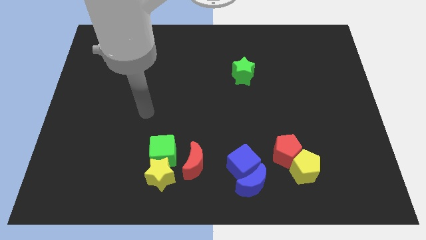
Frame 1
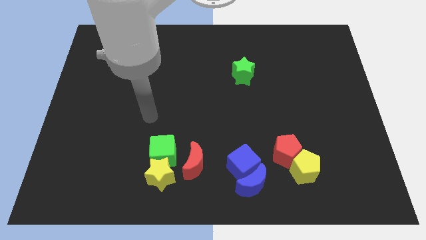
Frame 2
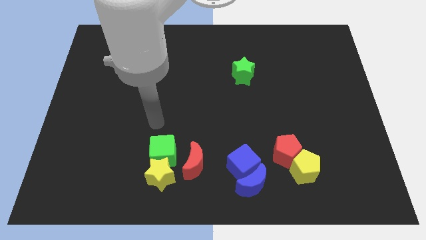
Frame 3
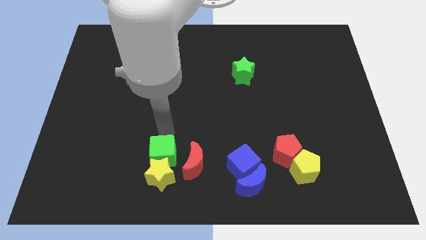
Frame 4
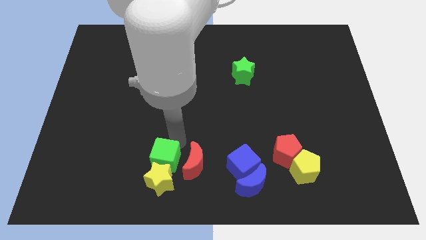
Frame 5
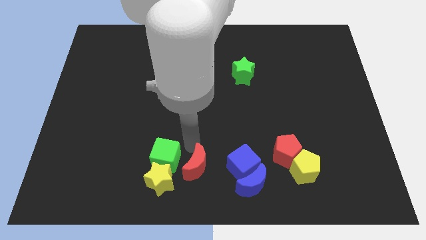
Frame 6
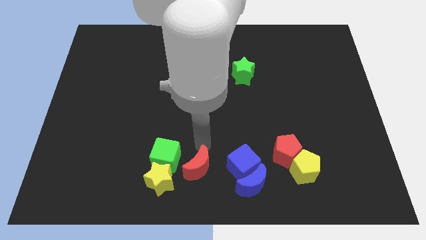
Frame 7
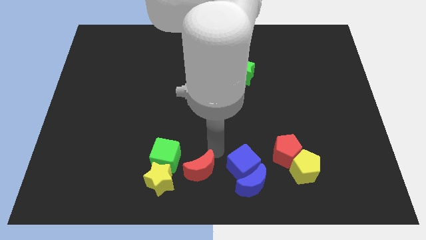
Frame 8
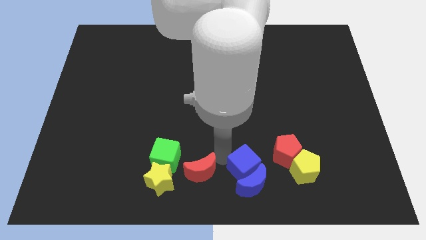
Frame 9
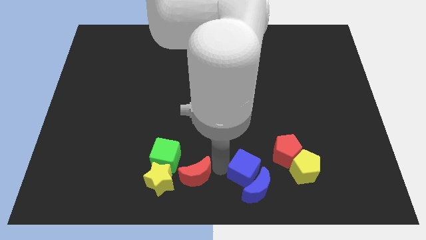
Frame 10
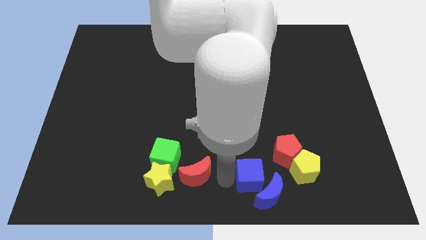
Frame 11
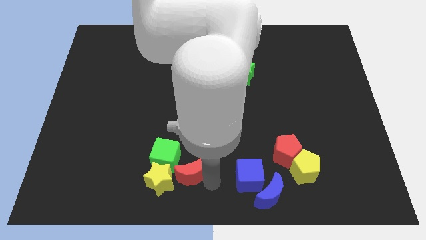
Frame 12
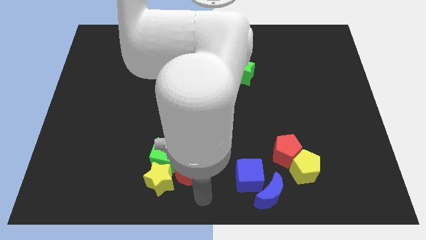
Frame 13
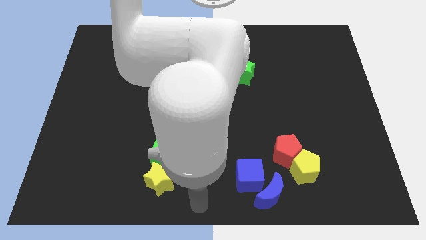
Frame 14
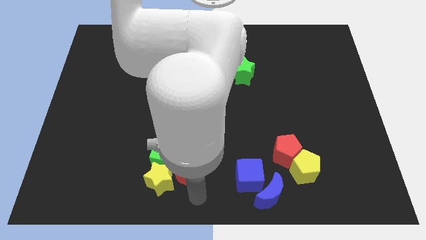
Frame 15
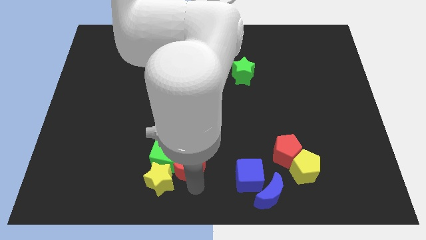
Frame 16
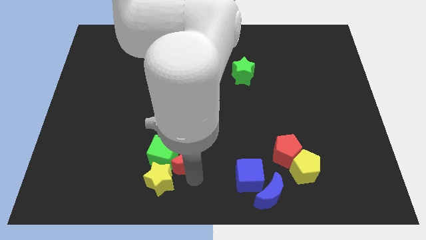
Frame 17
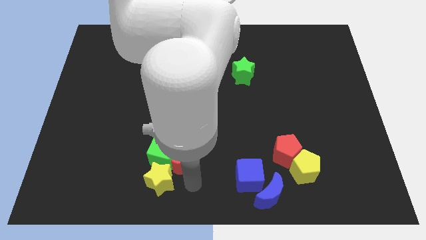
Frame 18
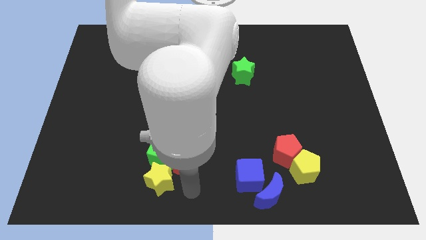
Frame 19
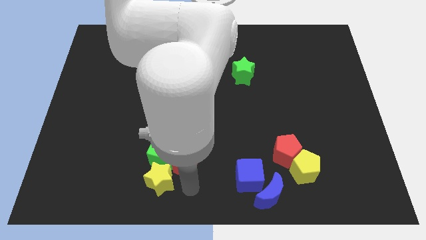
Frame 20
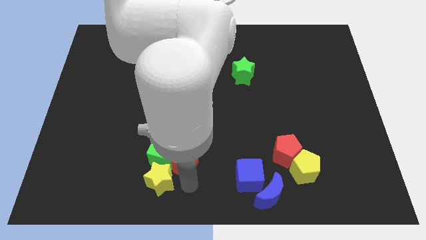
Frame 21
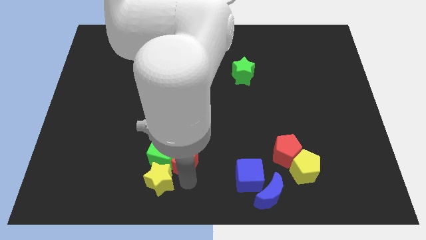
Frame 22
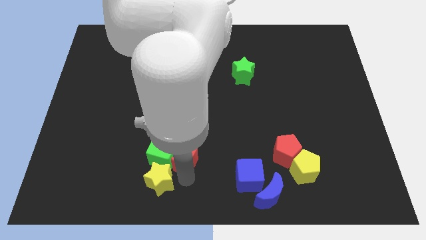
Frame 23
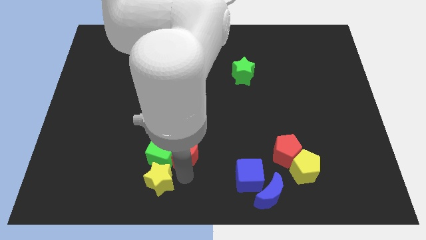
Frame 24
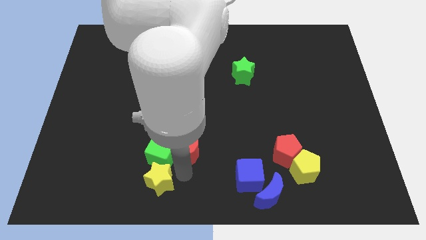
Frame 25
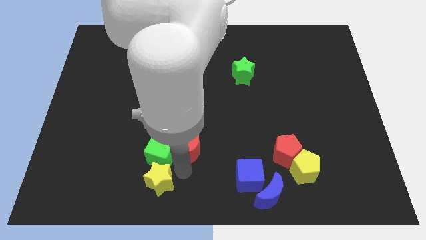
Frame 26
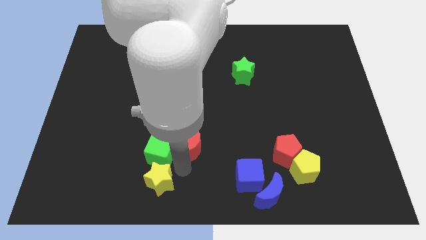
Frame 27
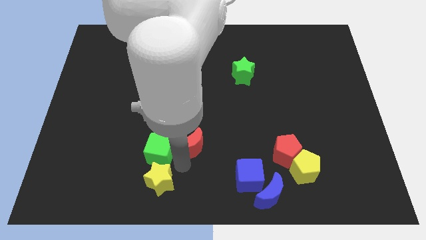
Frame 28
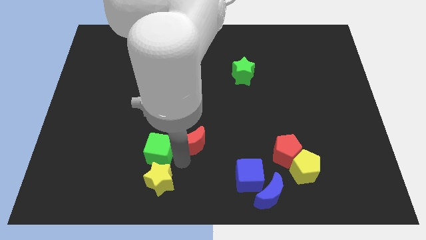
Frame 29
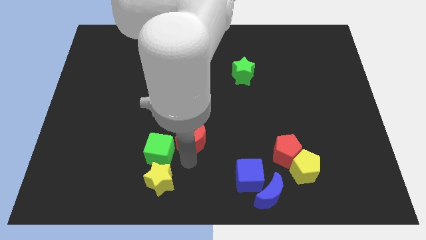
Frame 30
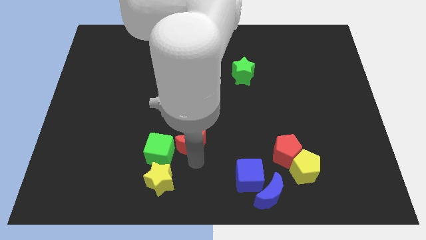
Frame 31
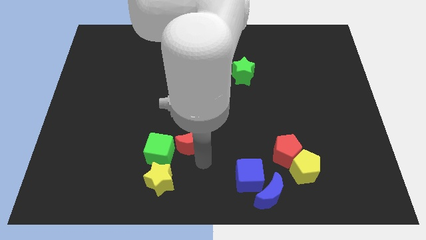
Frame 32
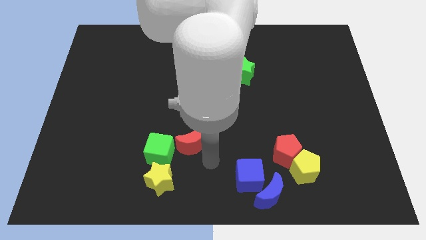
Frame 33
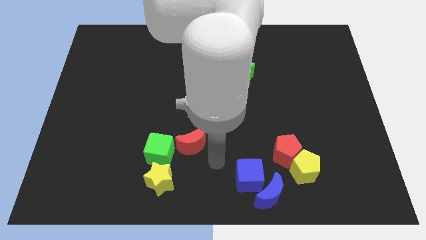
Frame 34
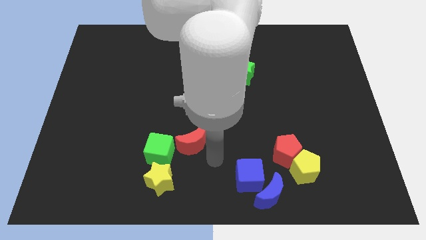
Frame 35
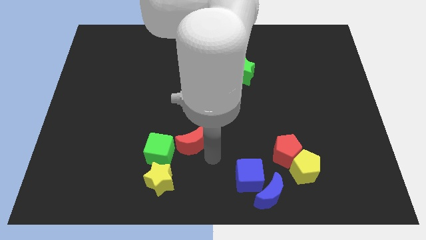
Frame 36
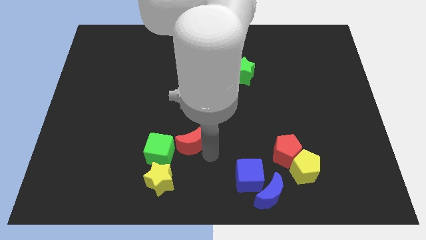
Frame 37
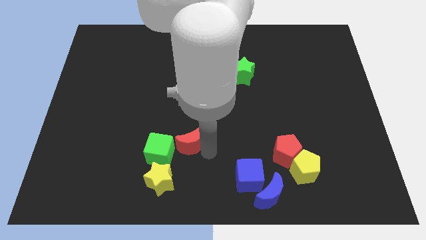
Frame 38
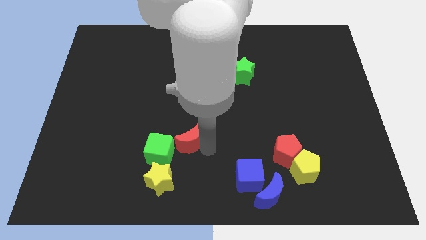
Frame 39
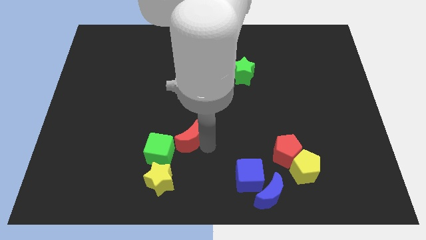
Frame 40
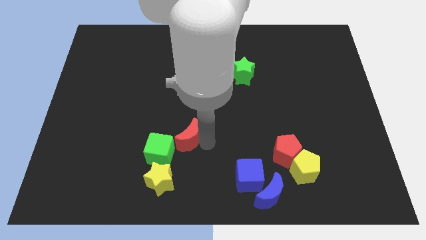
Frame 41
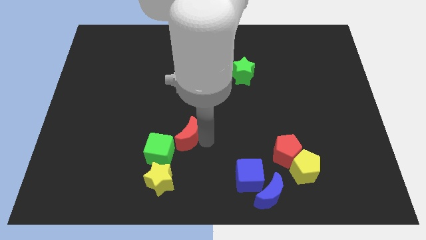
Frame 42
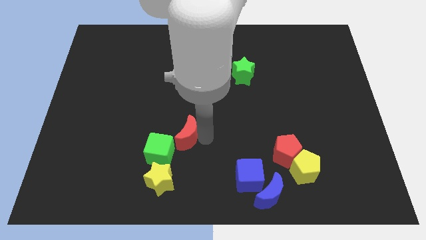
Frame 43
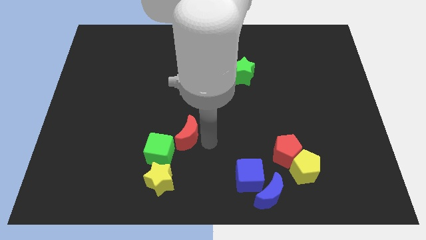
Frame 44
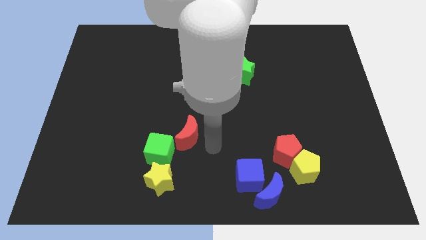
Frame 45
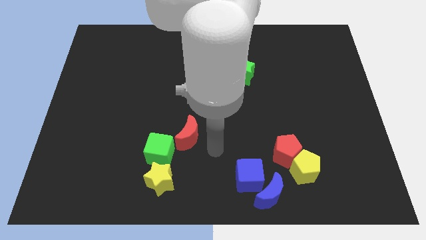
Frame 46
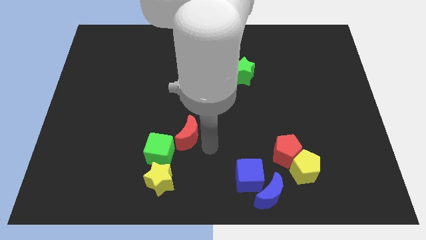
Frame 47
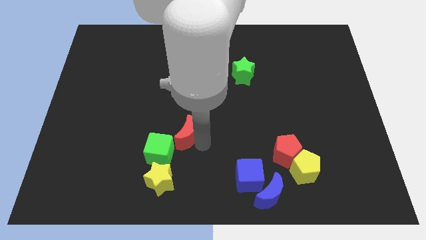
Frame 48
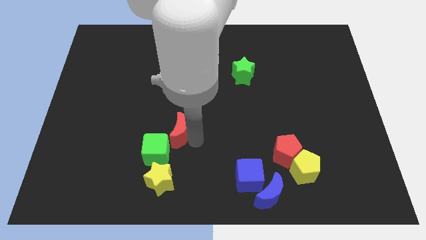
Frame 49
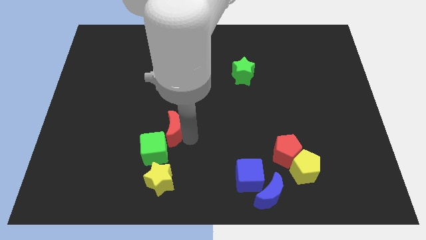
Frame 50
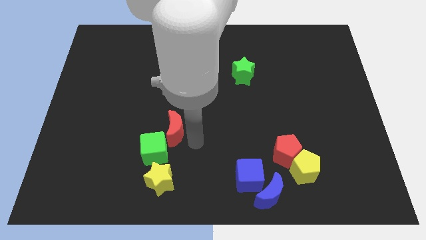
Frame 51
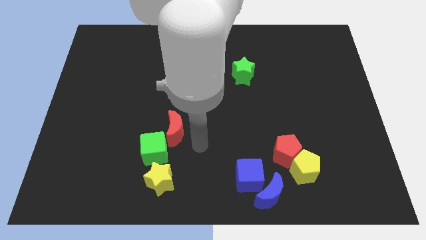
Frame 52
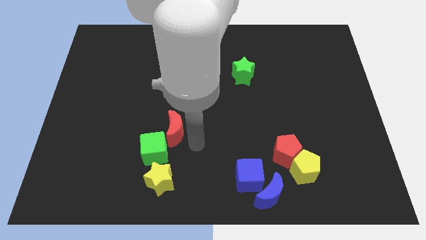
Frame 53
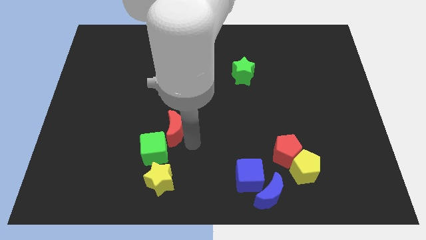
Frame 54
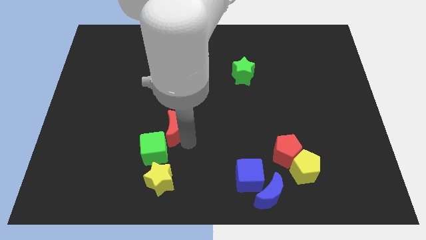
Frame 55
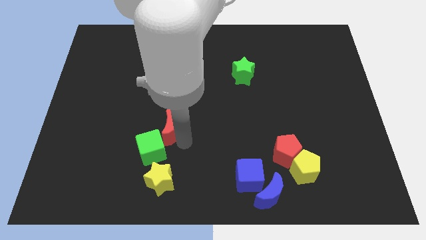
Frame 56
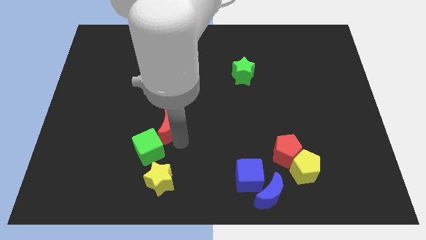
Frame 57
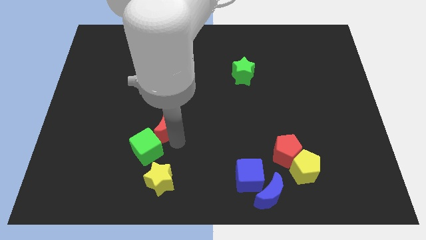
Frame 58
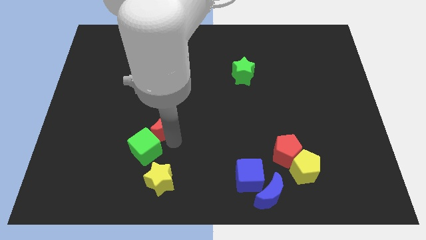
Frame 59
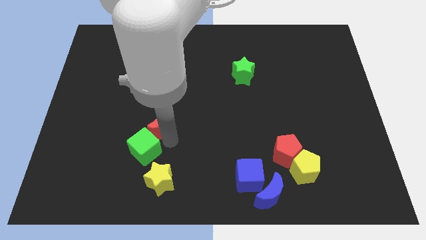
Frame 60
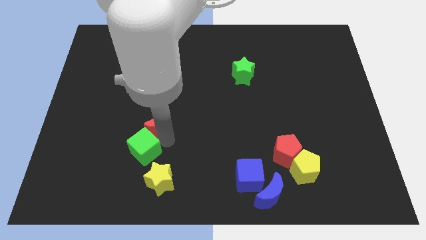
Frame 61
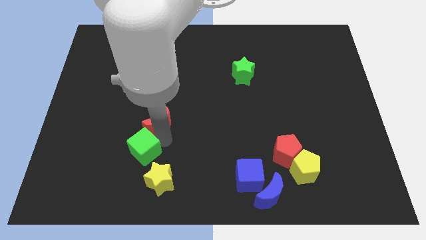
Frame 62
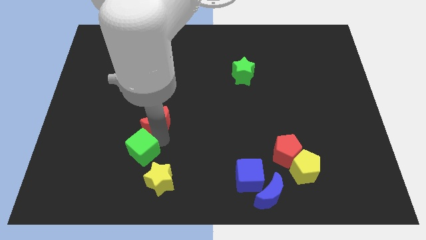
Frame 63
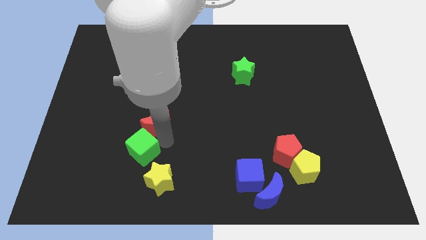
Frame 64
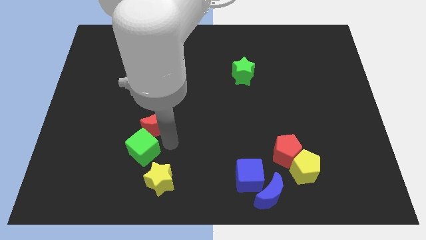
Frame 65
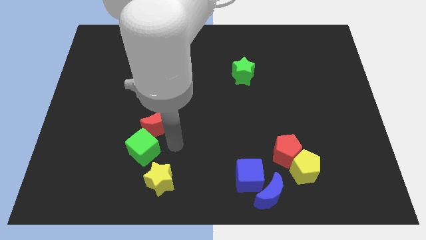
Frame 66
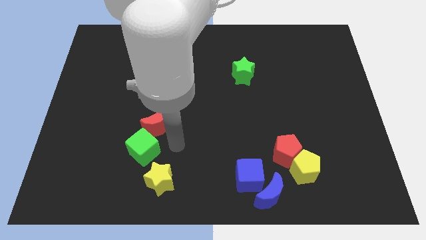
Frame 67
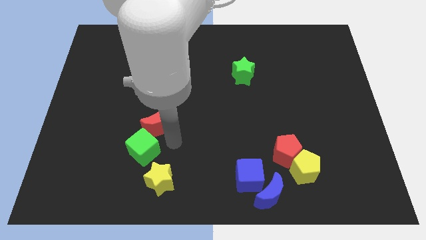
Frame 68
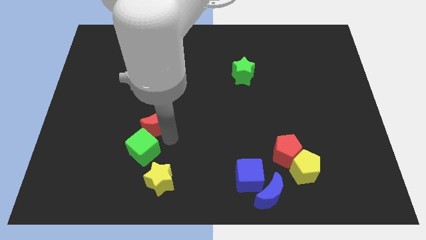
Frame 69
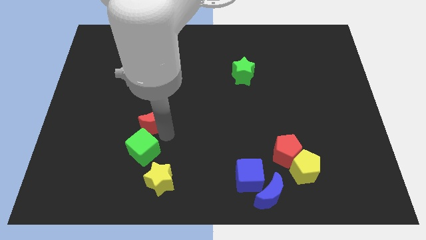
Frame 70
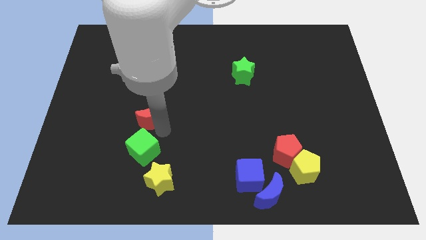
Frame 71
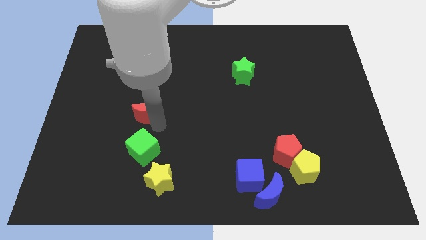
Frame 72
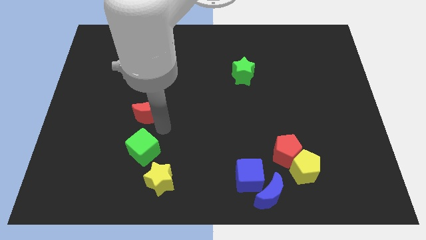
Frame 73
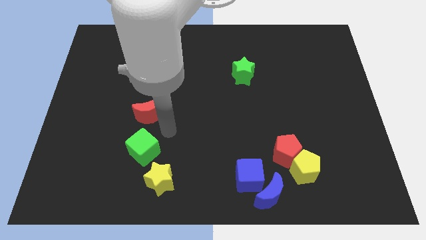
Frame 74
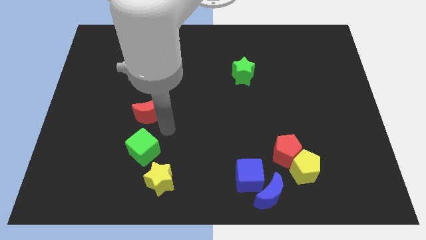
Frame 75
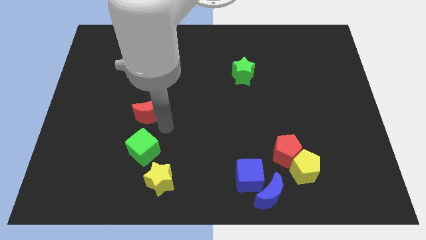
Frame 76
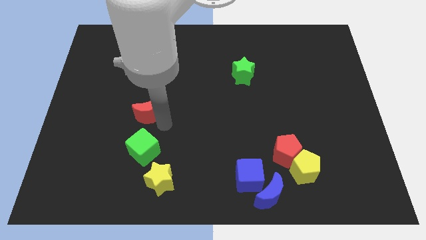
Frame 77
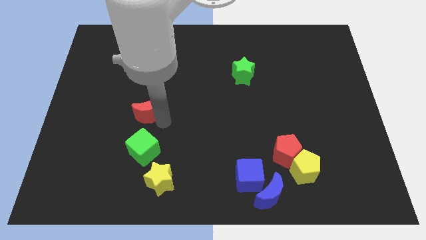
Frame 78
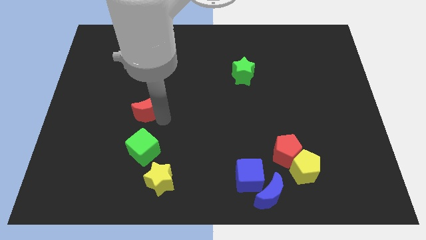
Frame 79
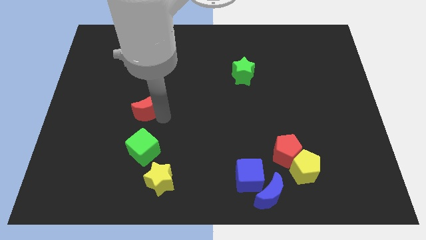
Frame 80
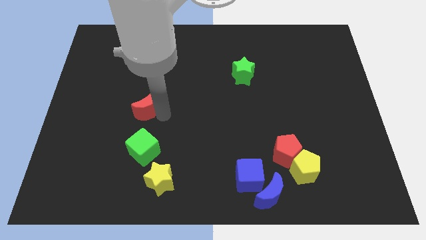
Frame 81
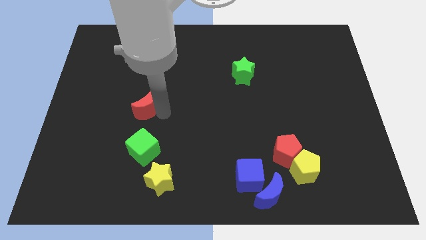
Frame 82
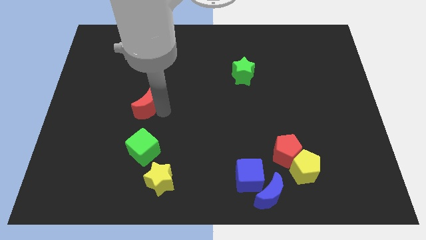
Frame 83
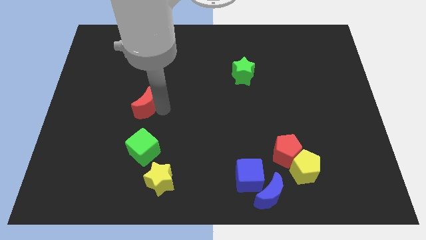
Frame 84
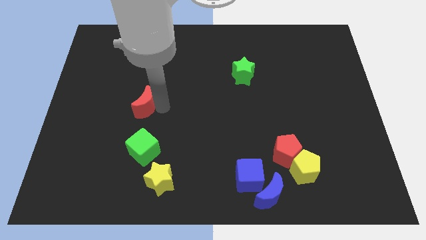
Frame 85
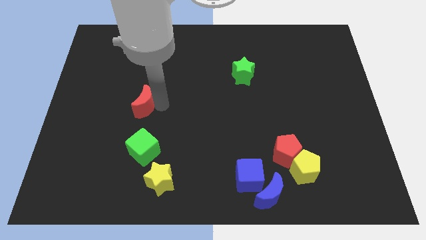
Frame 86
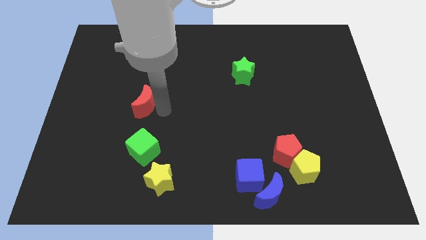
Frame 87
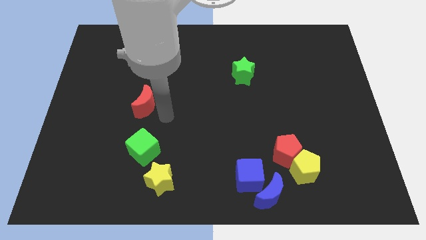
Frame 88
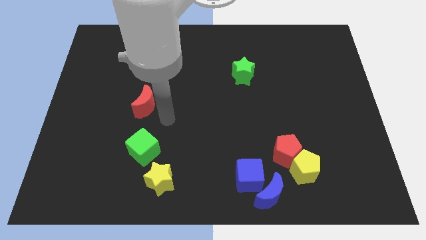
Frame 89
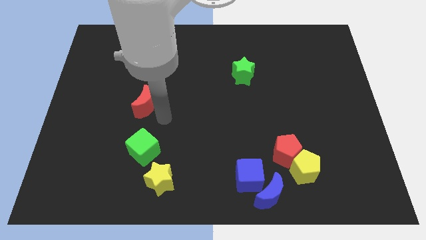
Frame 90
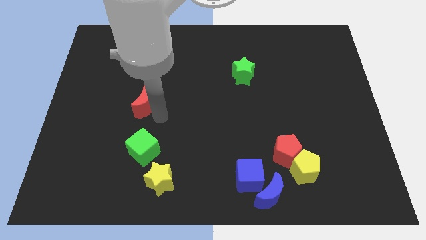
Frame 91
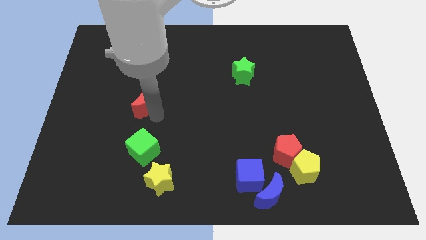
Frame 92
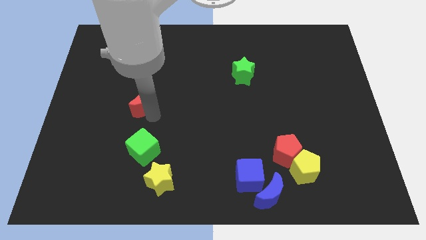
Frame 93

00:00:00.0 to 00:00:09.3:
move the red moon diagonally up and to the left
